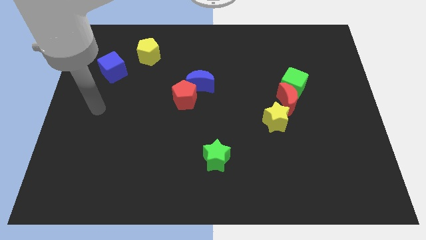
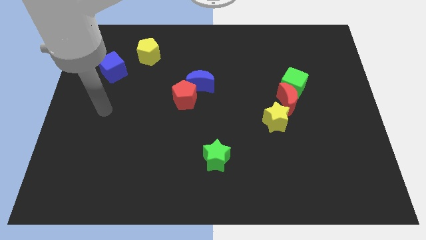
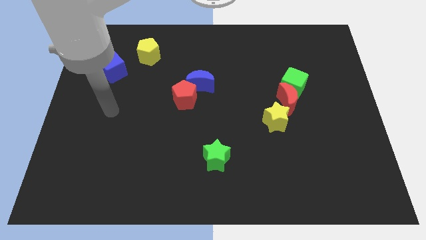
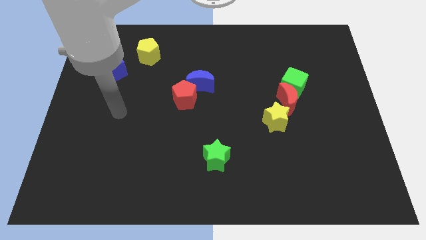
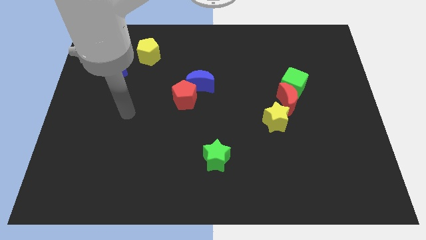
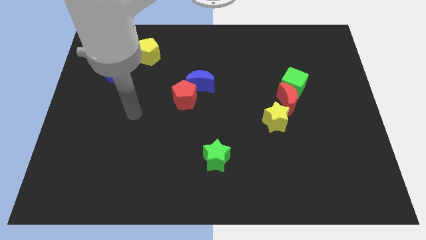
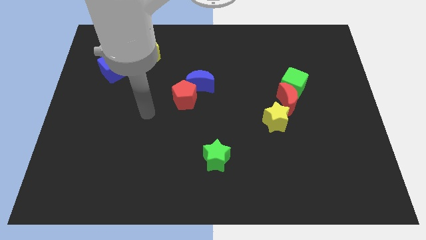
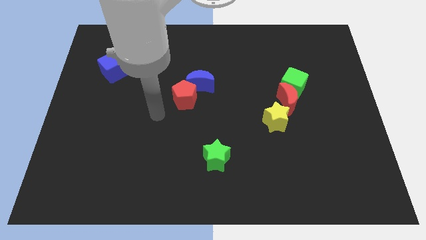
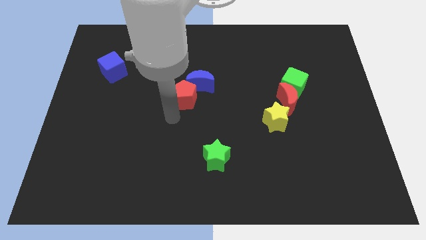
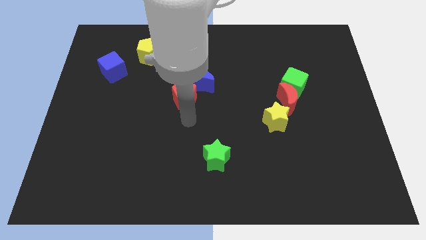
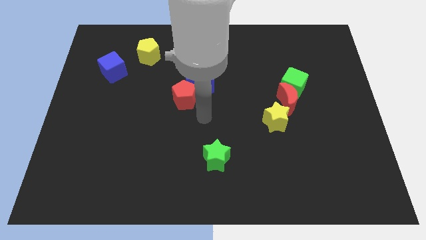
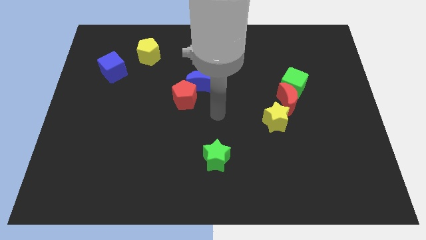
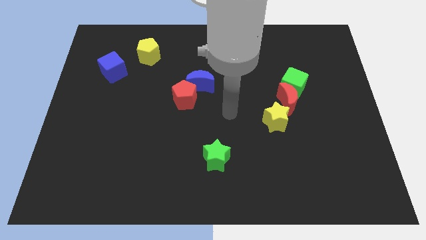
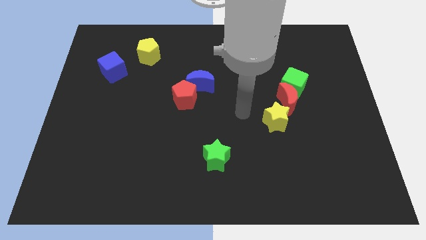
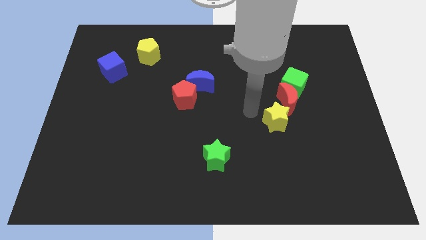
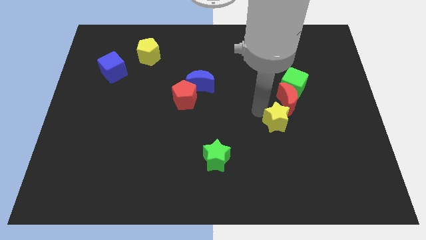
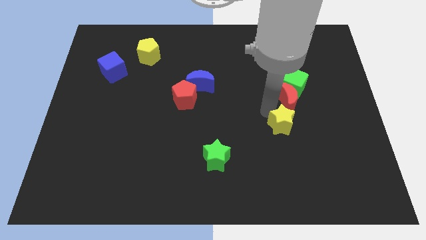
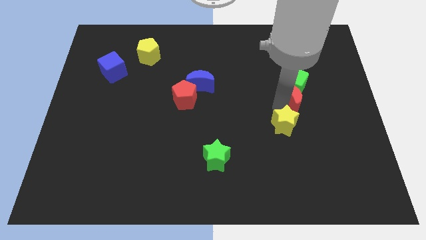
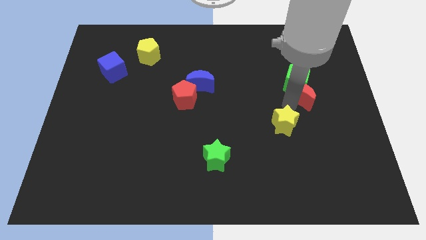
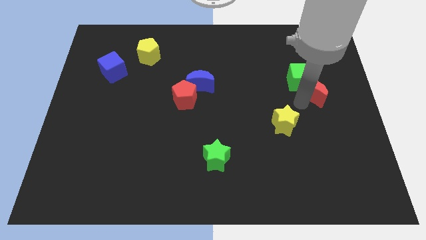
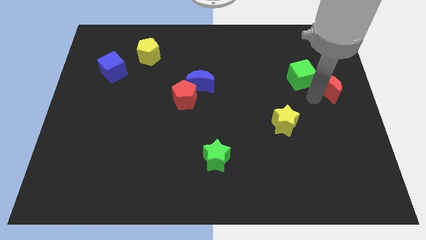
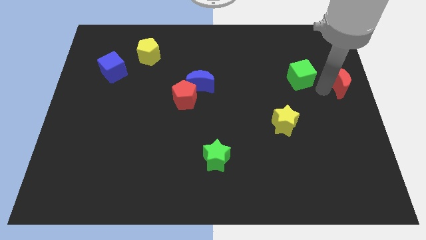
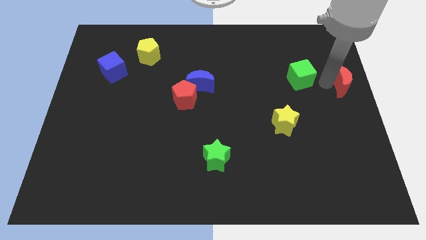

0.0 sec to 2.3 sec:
separate the green cube from the red moon

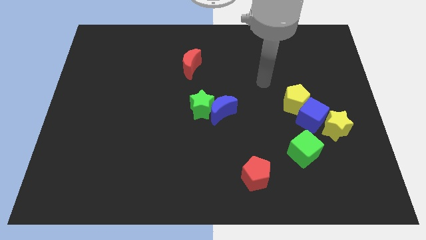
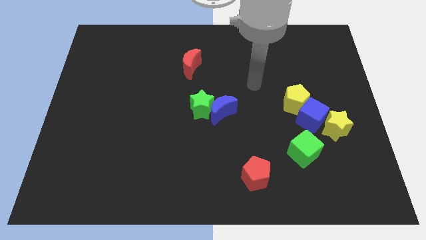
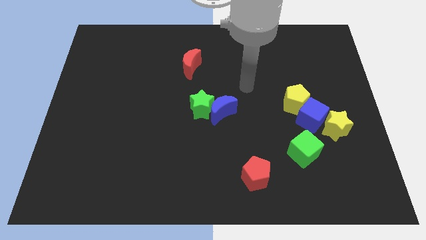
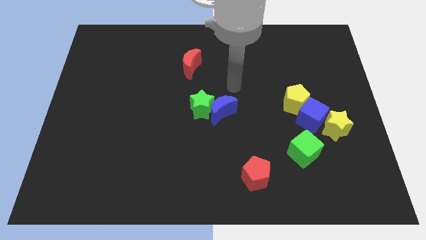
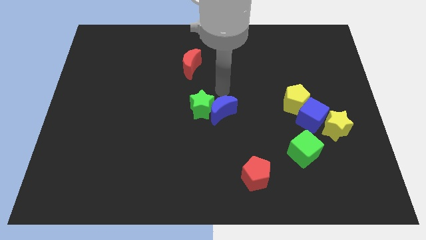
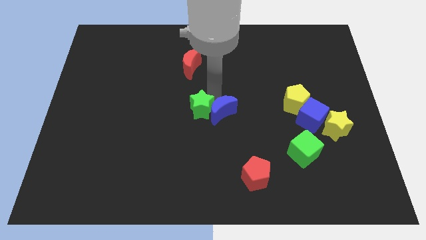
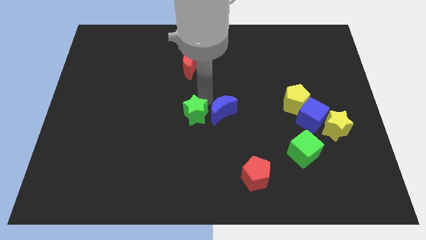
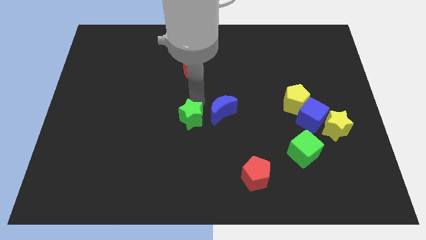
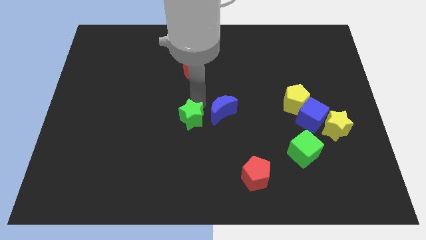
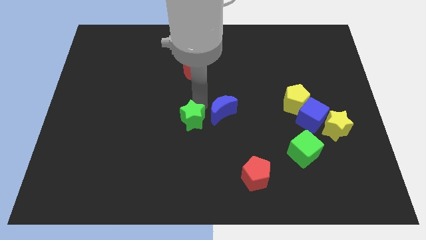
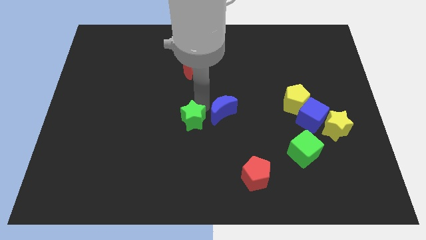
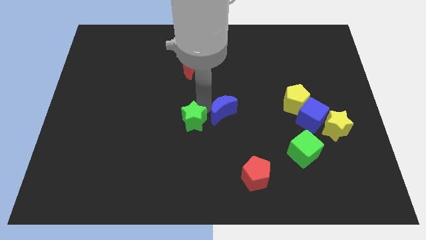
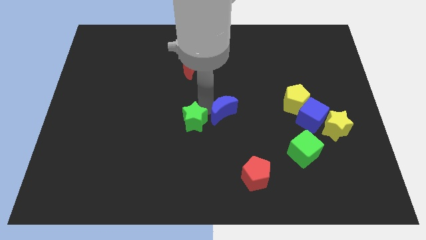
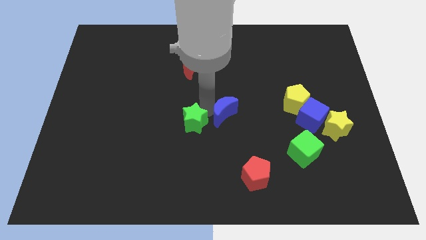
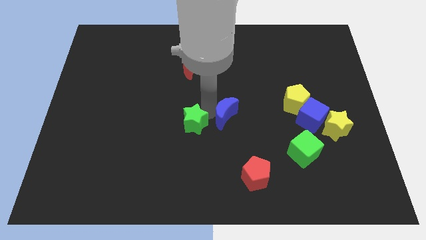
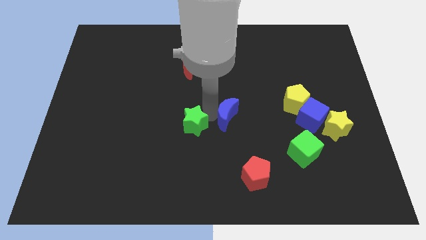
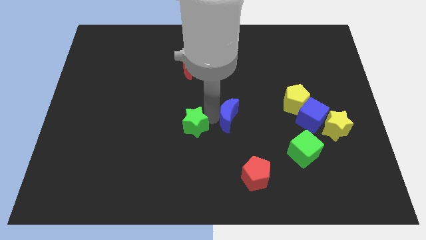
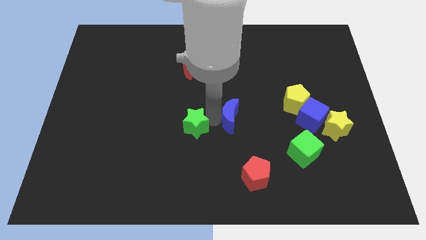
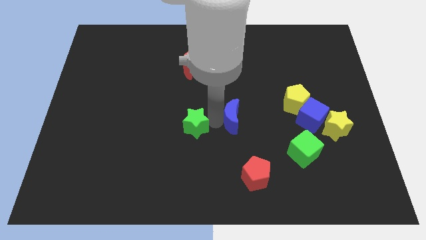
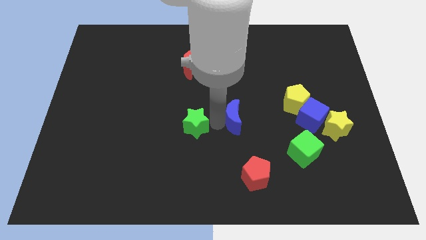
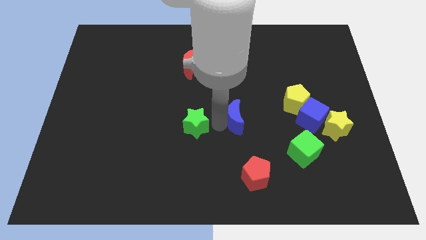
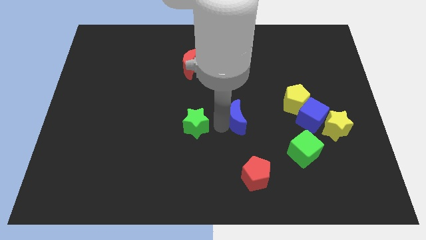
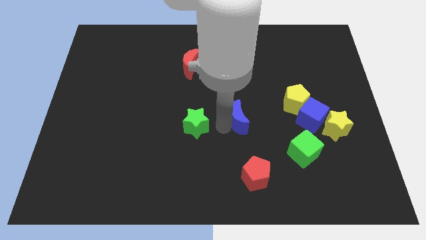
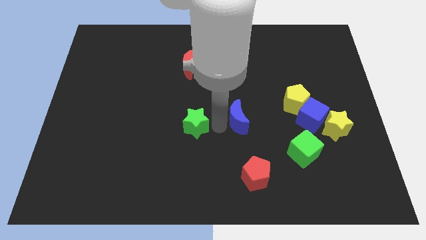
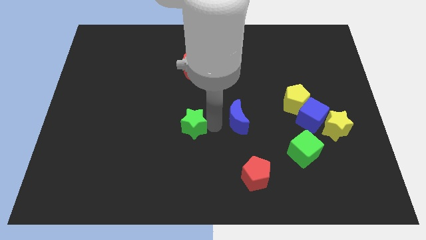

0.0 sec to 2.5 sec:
pull the blue moon apart from the green star

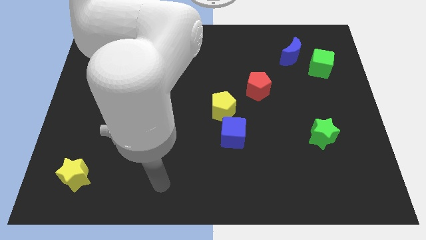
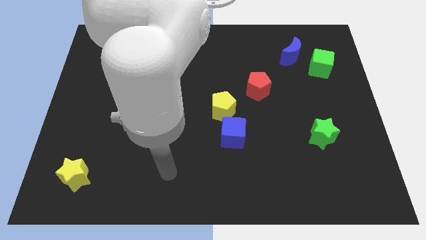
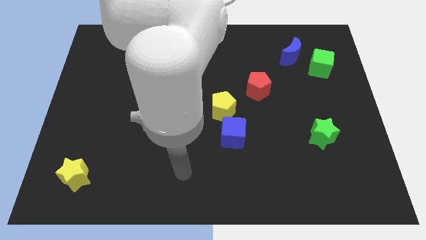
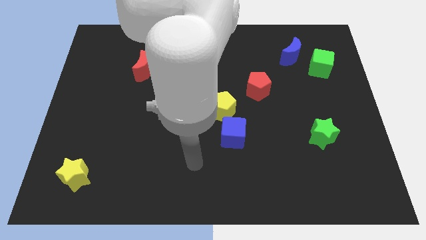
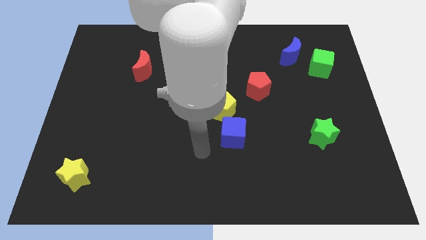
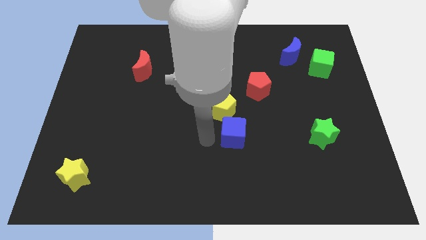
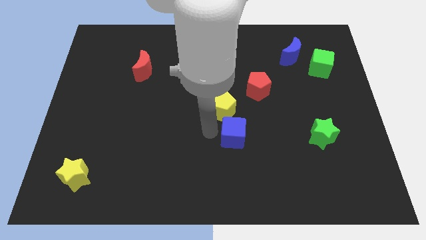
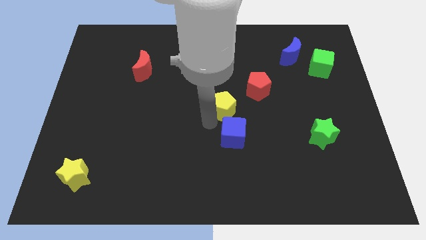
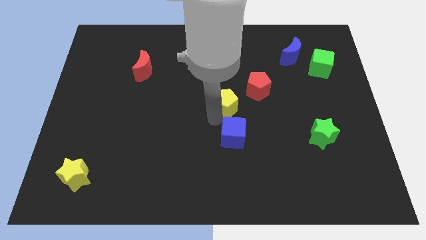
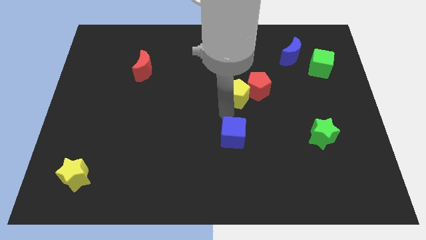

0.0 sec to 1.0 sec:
separate the blue cube from the yellow pentagon

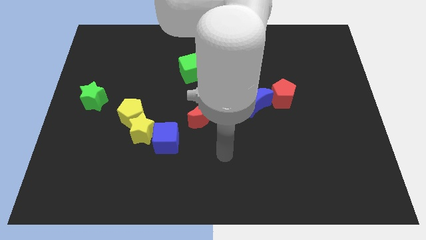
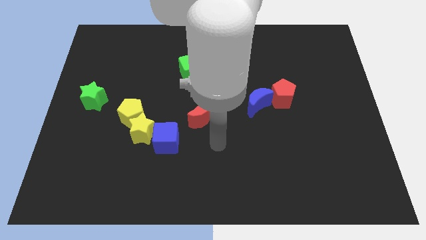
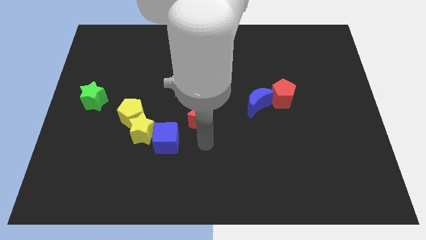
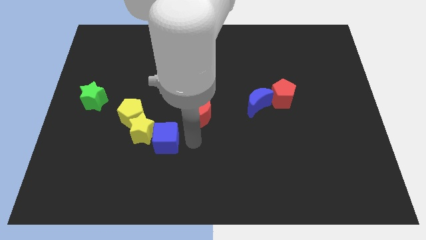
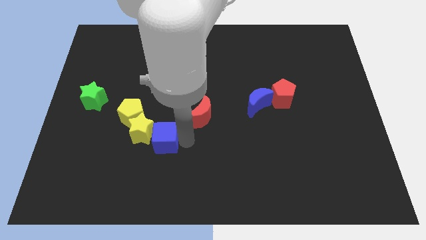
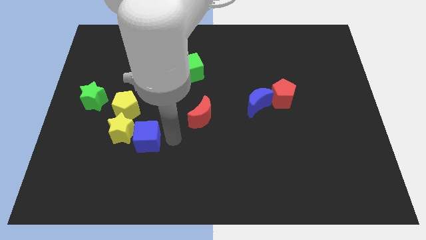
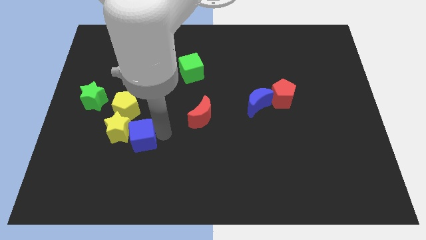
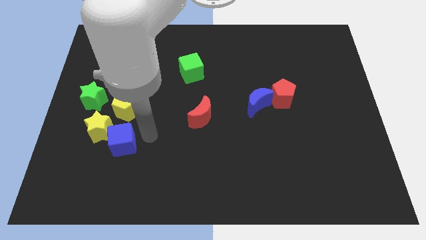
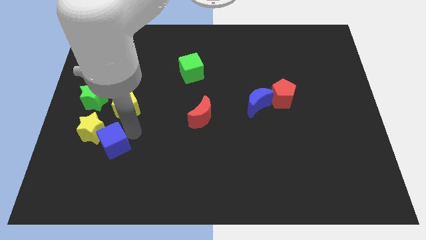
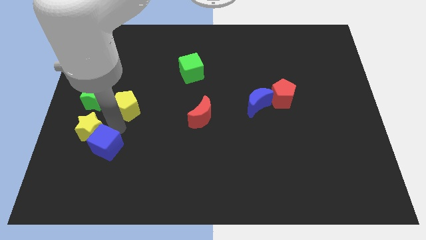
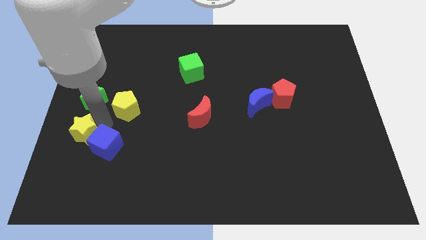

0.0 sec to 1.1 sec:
pull the yellow pentagon apart from the yellow star

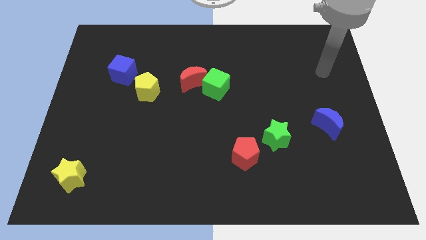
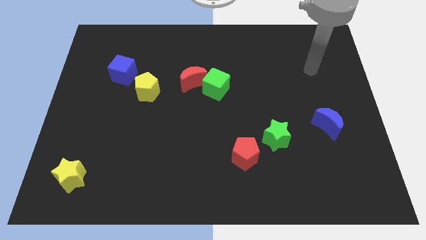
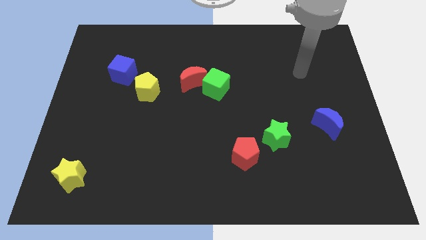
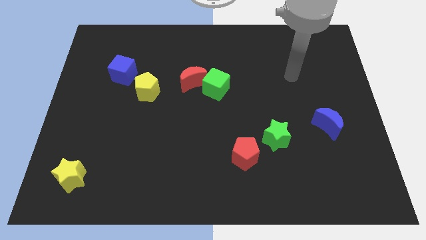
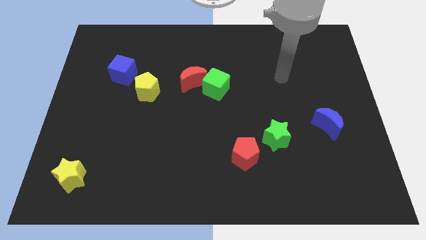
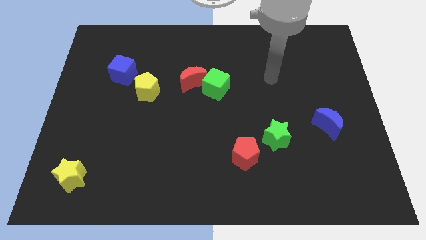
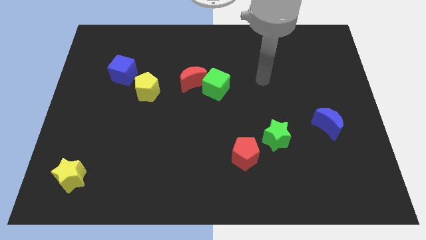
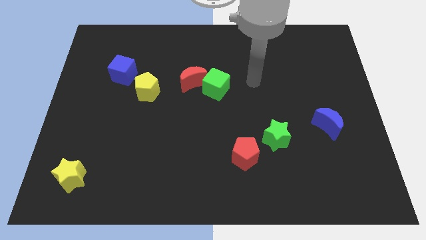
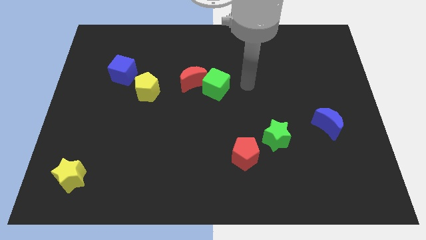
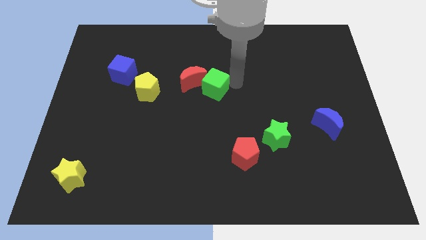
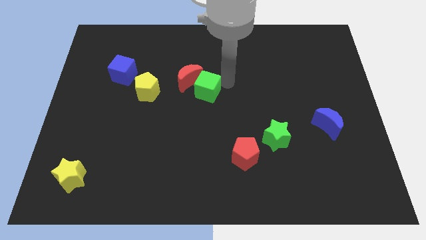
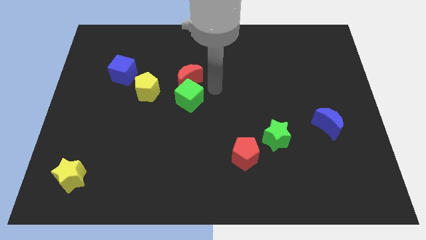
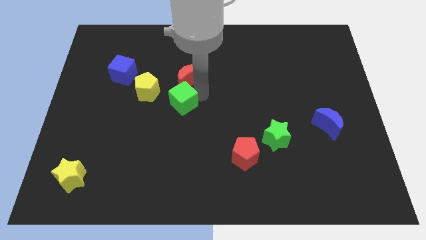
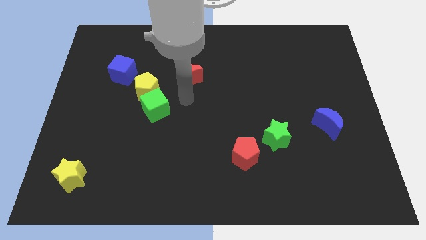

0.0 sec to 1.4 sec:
separate the red moon from the green cube

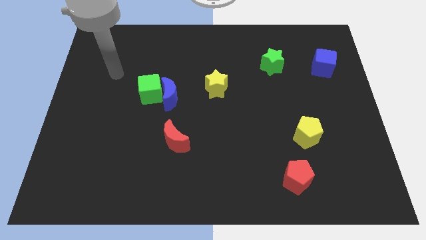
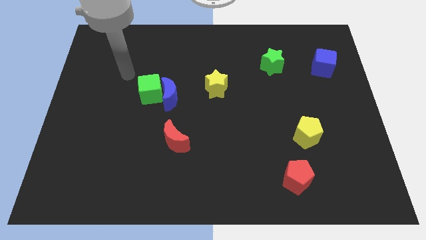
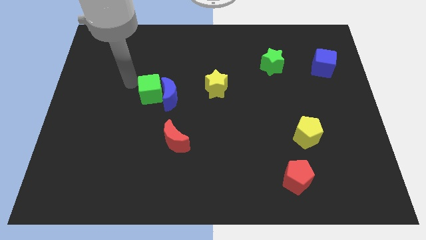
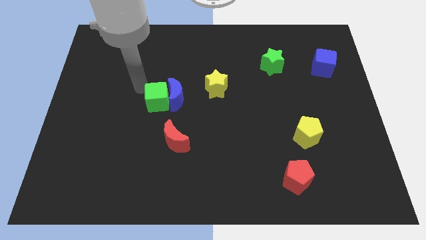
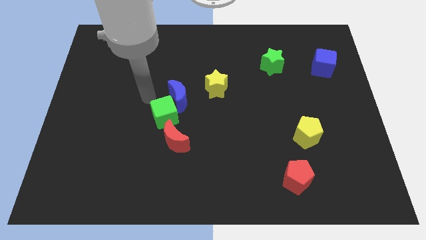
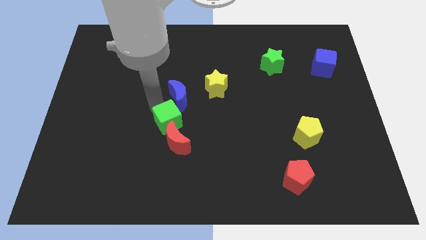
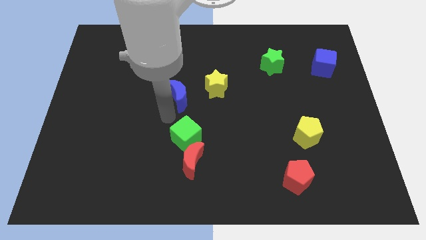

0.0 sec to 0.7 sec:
move the blue moon away from the green cube

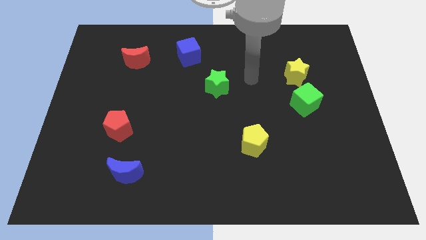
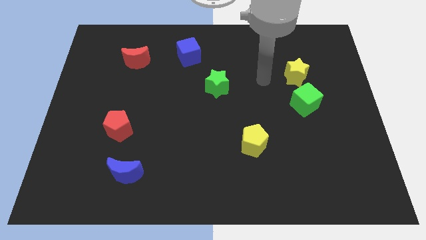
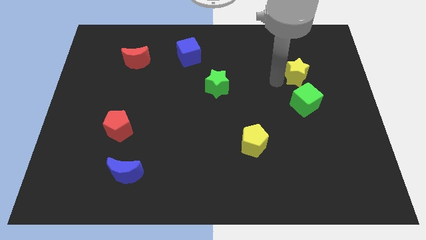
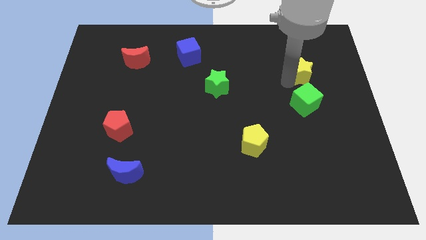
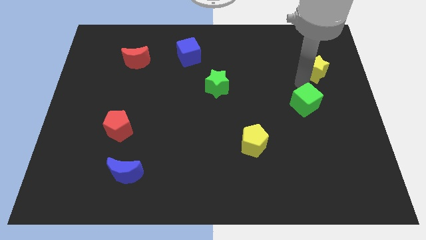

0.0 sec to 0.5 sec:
pull the green cube apart from the yellow star

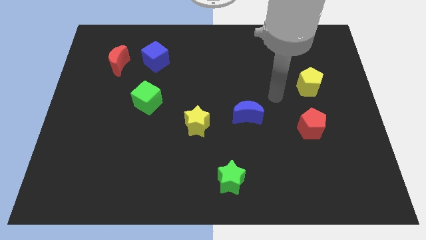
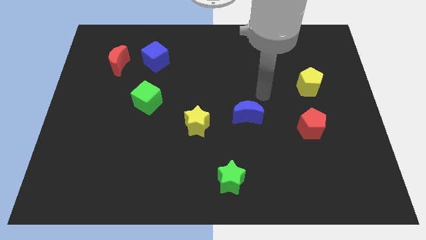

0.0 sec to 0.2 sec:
pull the red moon apart from the blue cube
